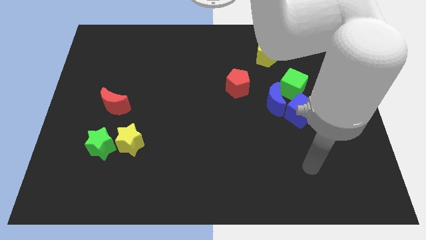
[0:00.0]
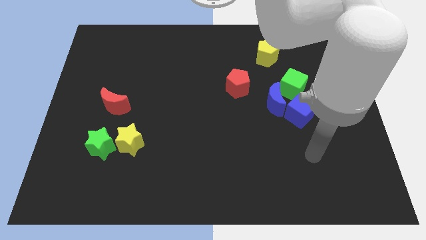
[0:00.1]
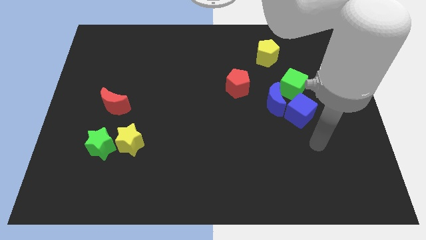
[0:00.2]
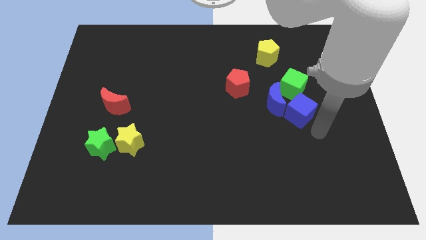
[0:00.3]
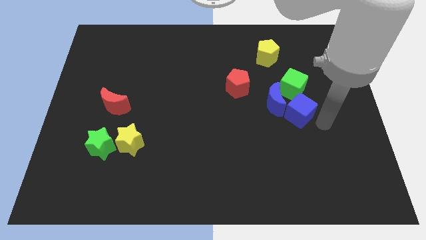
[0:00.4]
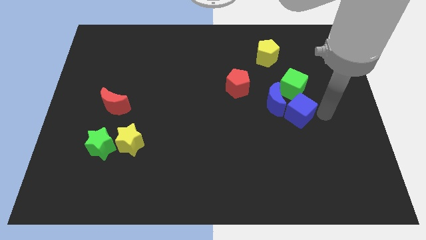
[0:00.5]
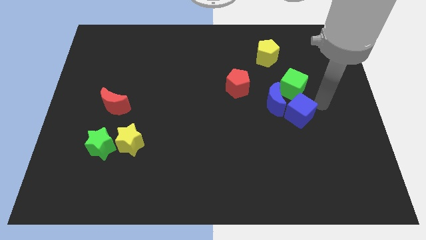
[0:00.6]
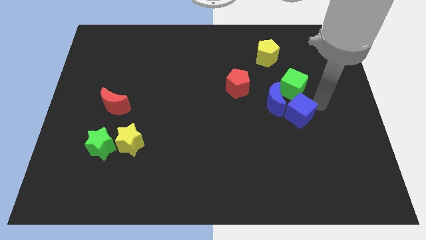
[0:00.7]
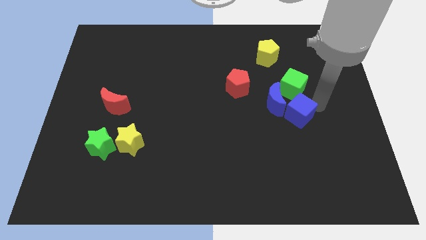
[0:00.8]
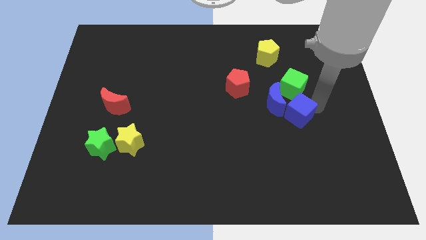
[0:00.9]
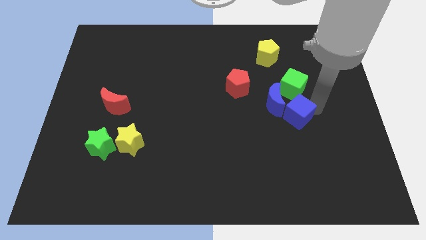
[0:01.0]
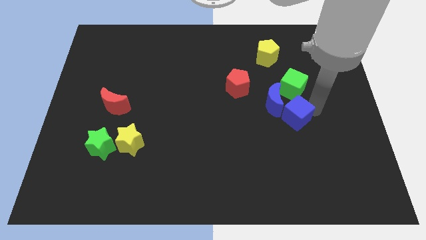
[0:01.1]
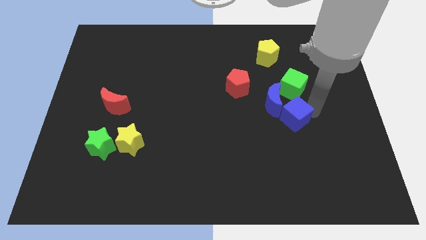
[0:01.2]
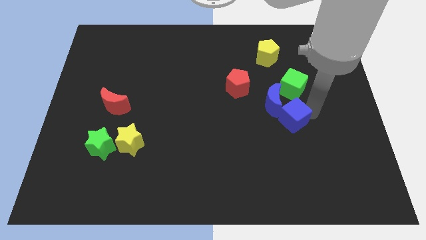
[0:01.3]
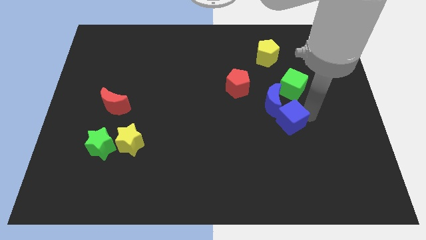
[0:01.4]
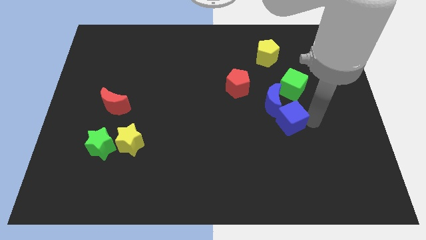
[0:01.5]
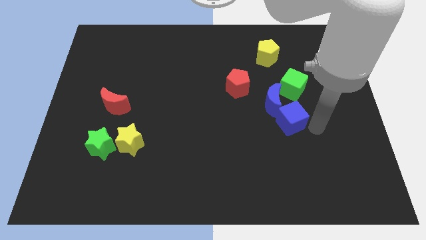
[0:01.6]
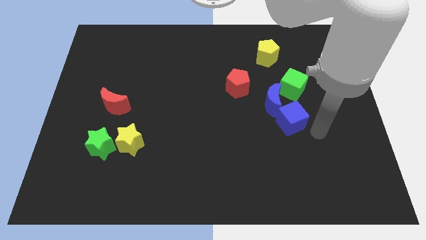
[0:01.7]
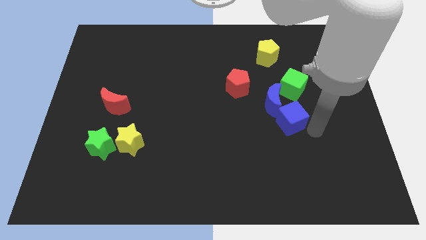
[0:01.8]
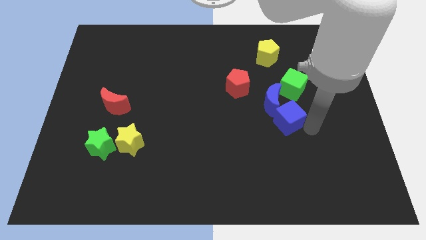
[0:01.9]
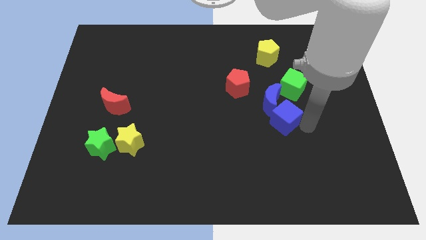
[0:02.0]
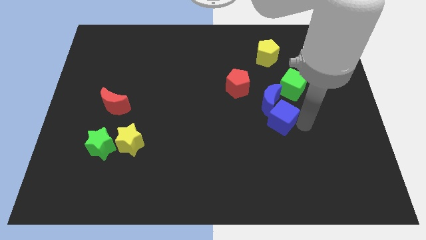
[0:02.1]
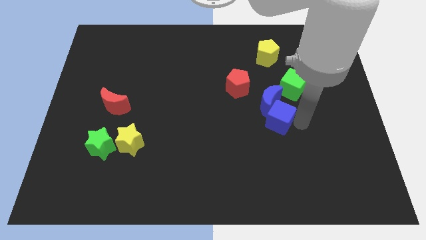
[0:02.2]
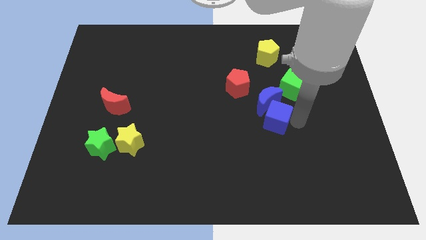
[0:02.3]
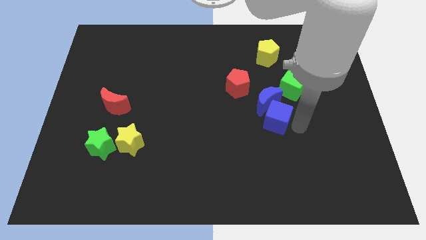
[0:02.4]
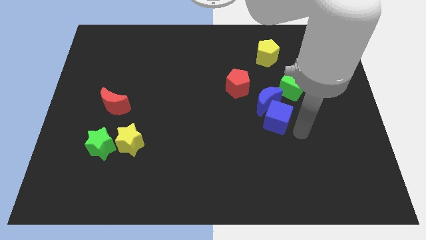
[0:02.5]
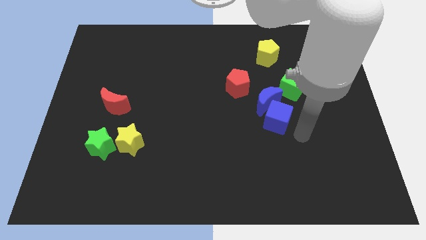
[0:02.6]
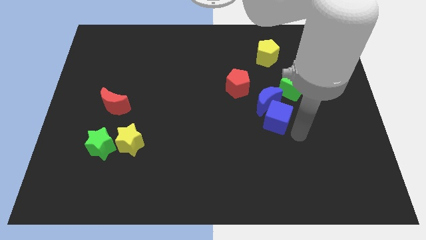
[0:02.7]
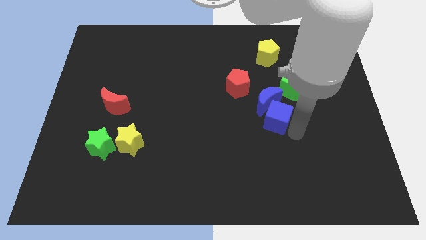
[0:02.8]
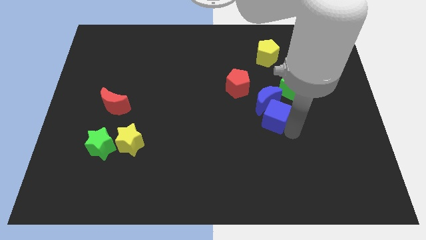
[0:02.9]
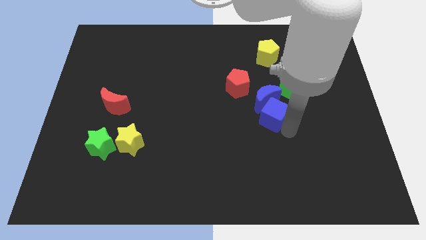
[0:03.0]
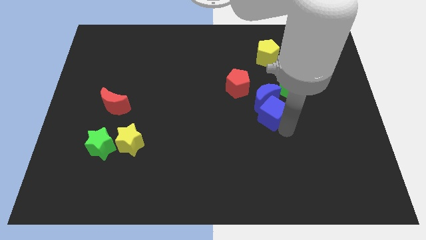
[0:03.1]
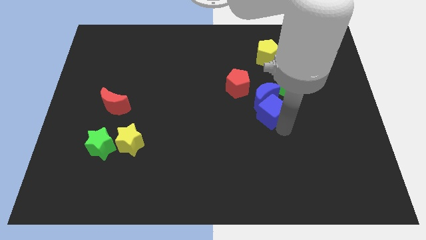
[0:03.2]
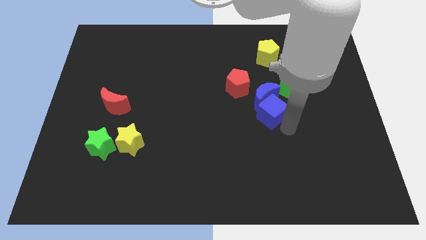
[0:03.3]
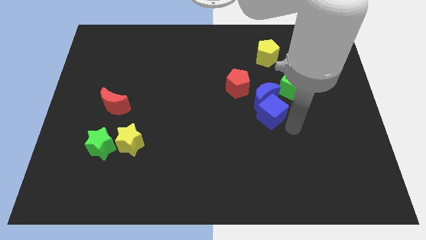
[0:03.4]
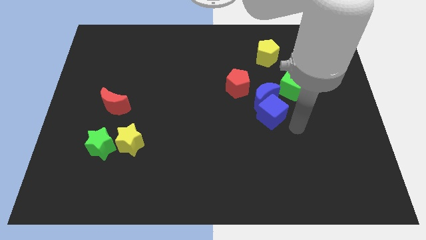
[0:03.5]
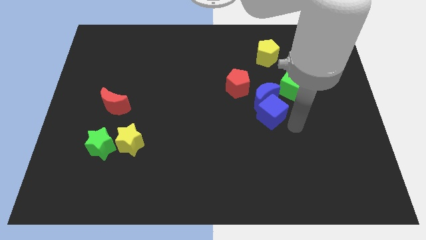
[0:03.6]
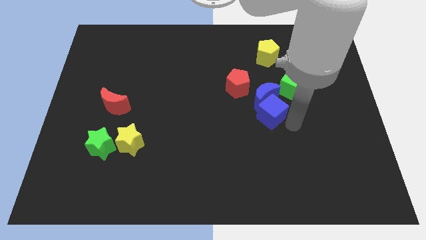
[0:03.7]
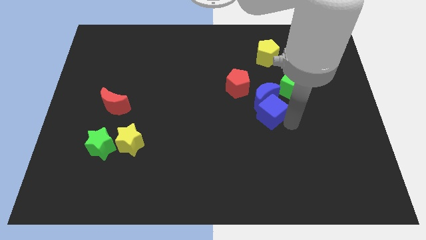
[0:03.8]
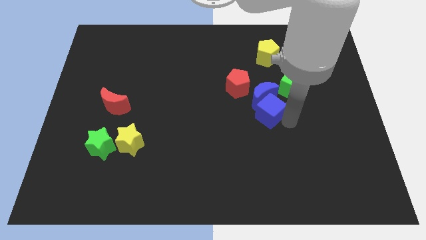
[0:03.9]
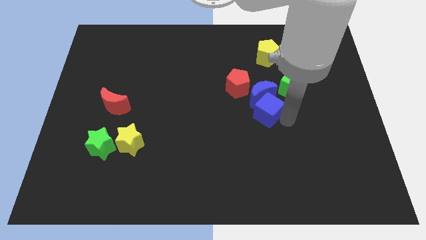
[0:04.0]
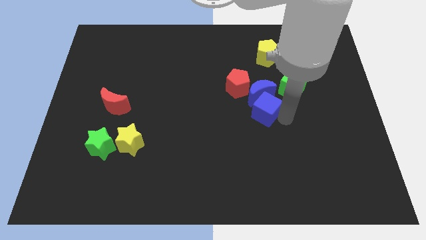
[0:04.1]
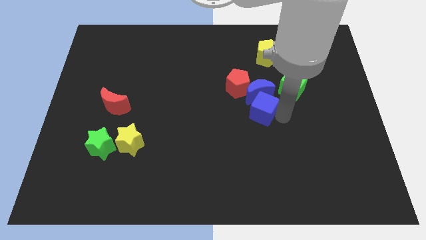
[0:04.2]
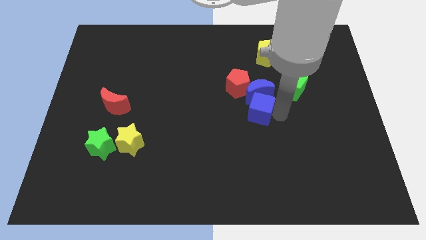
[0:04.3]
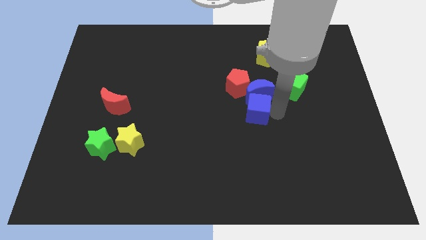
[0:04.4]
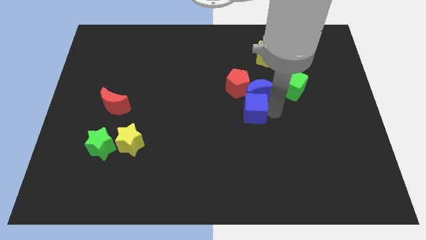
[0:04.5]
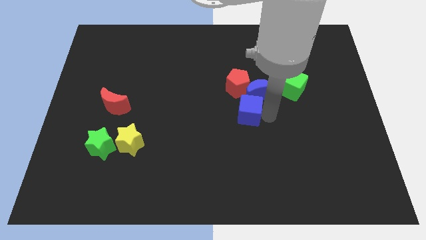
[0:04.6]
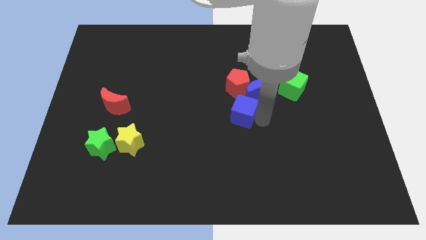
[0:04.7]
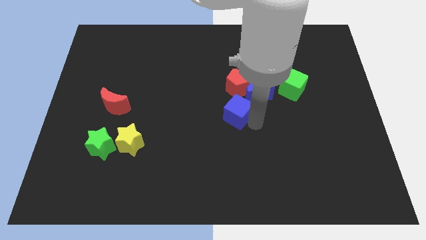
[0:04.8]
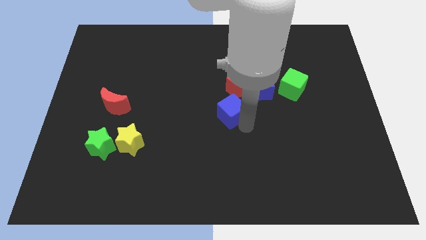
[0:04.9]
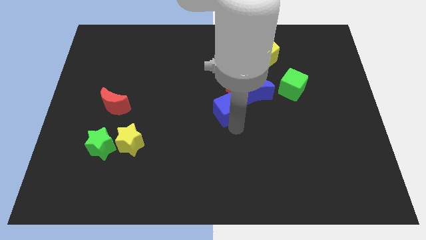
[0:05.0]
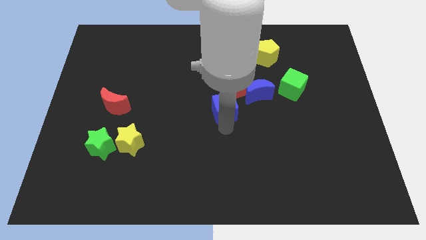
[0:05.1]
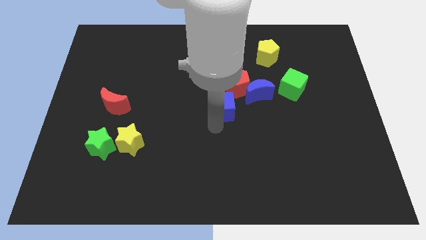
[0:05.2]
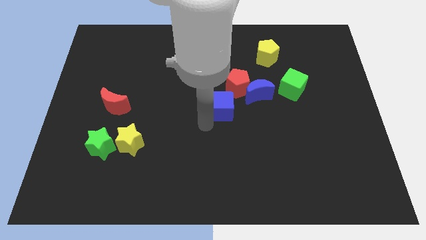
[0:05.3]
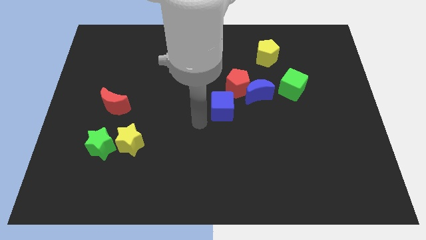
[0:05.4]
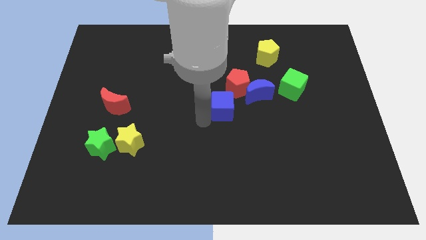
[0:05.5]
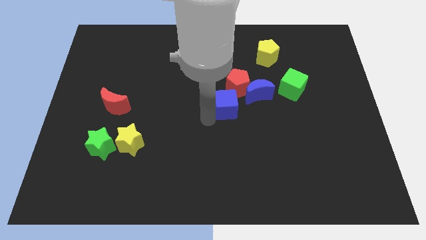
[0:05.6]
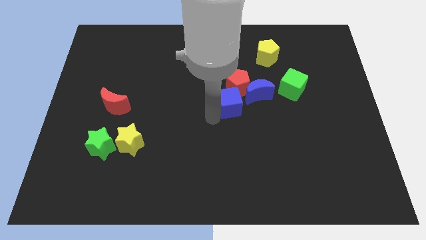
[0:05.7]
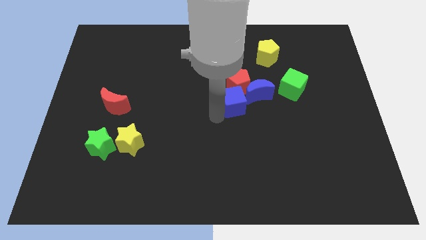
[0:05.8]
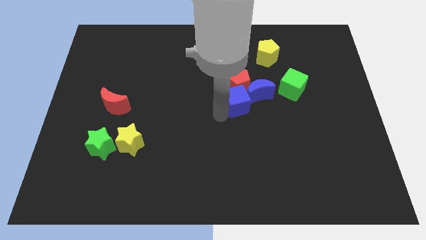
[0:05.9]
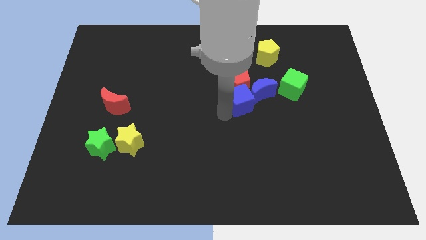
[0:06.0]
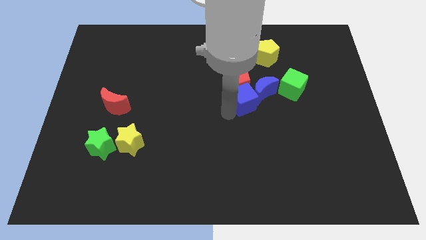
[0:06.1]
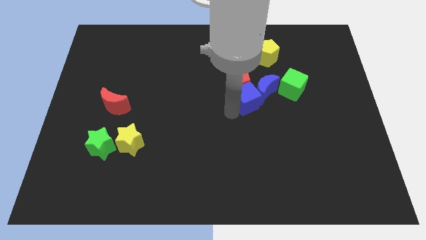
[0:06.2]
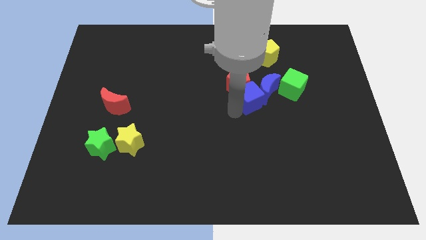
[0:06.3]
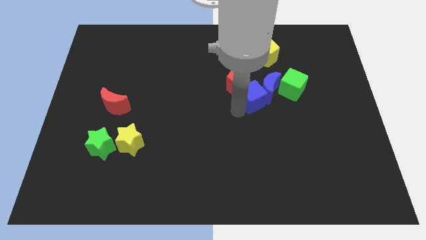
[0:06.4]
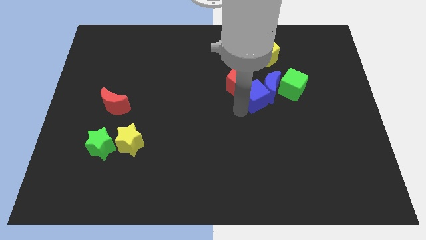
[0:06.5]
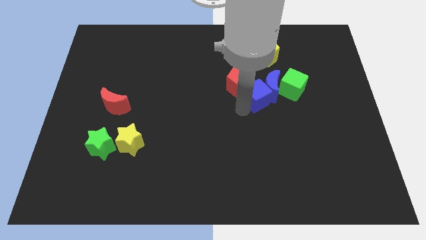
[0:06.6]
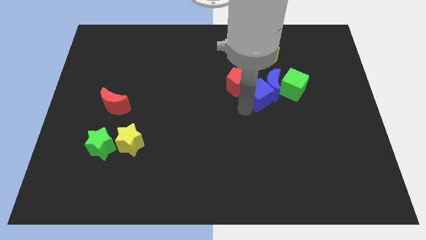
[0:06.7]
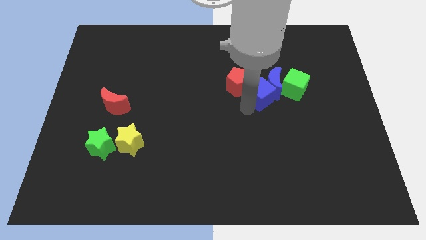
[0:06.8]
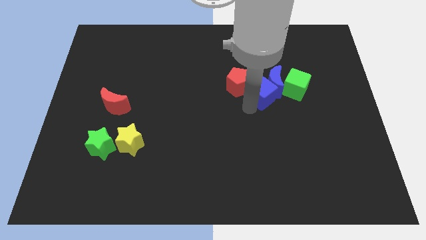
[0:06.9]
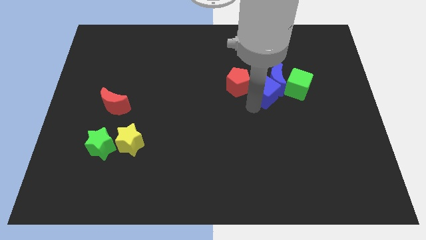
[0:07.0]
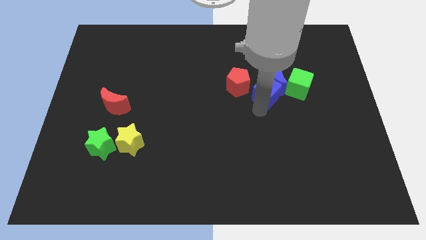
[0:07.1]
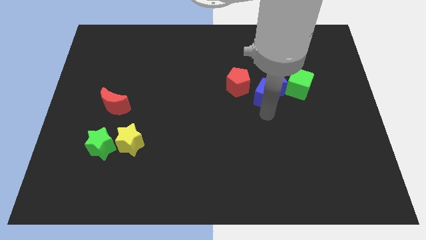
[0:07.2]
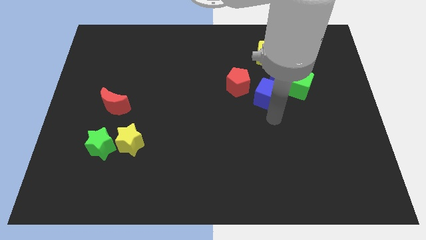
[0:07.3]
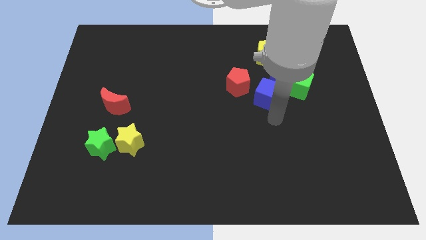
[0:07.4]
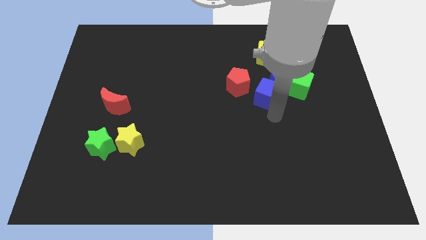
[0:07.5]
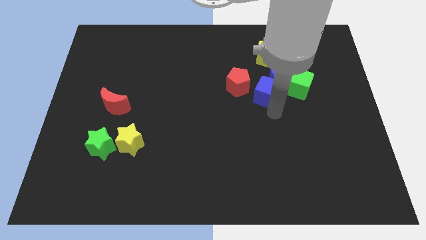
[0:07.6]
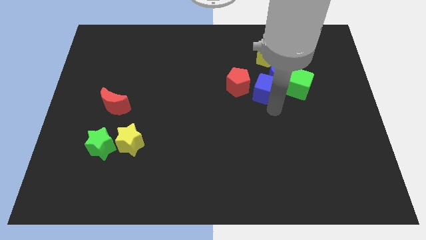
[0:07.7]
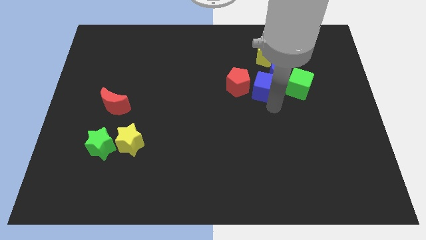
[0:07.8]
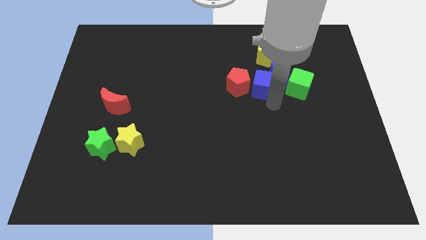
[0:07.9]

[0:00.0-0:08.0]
put the blue cube diagonally up and to the right of the red pentagon
